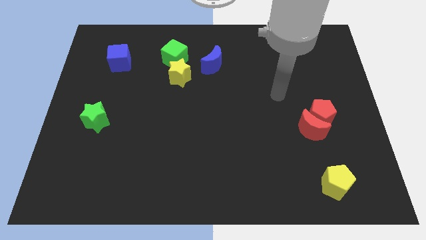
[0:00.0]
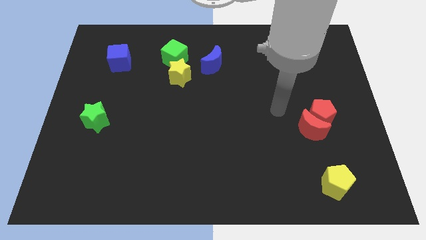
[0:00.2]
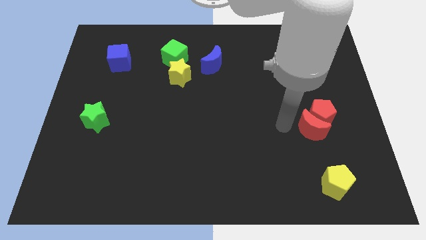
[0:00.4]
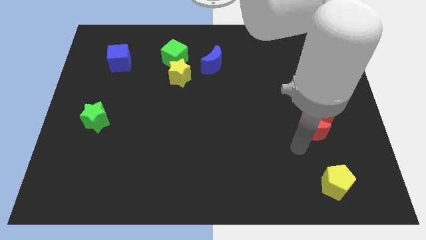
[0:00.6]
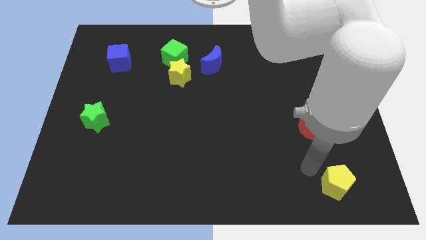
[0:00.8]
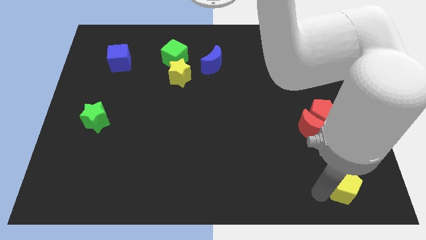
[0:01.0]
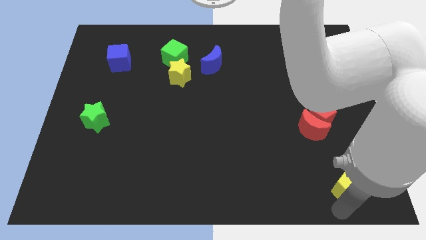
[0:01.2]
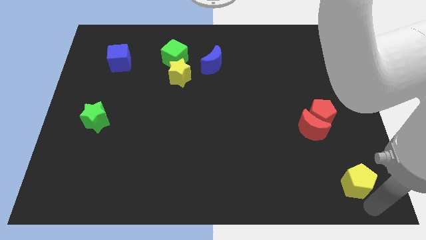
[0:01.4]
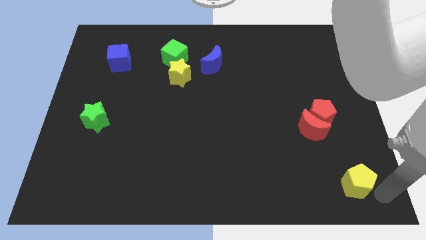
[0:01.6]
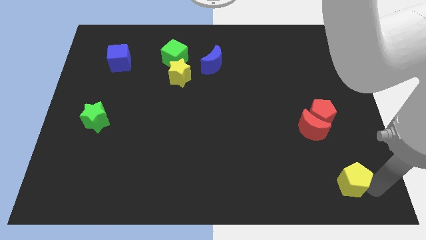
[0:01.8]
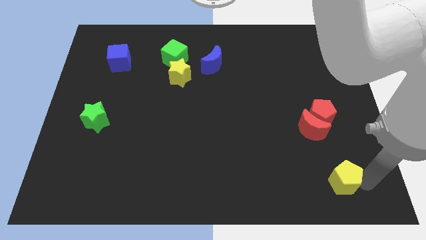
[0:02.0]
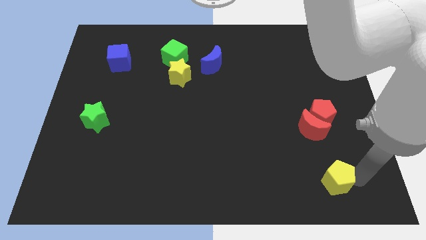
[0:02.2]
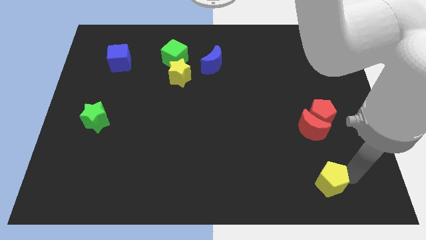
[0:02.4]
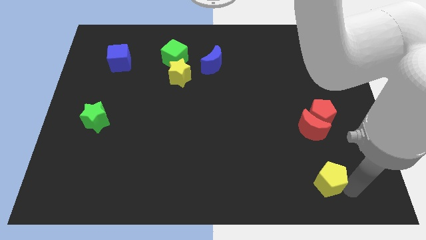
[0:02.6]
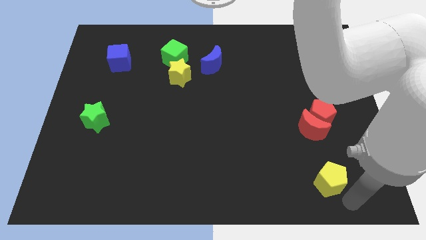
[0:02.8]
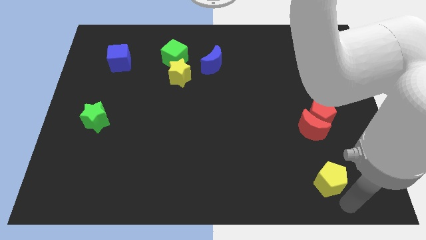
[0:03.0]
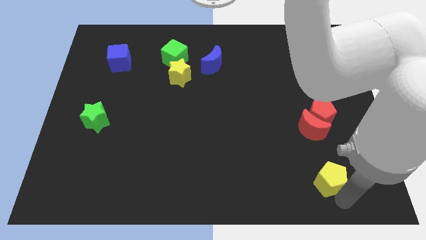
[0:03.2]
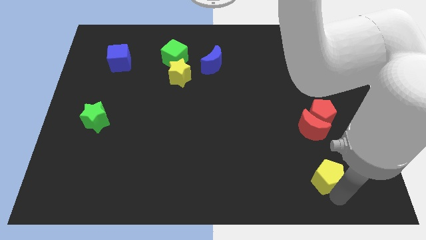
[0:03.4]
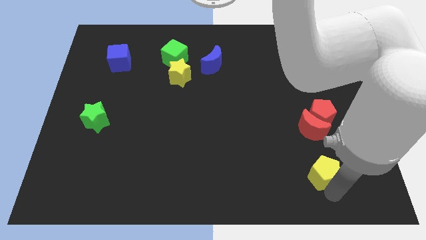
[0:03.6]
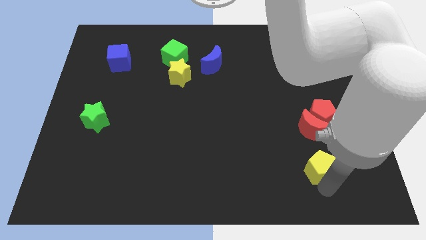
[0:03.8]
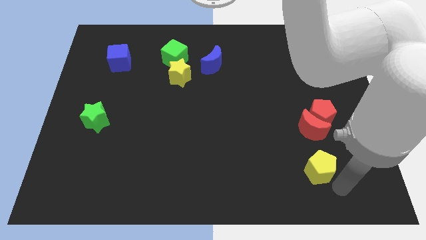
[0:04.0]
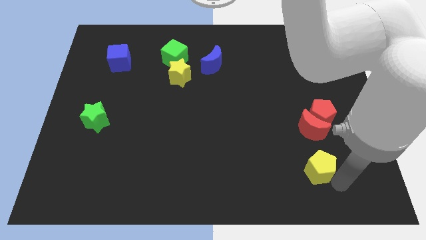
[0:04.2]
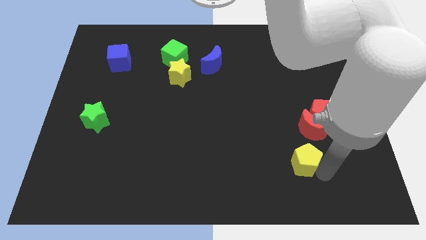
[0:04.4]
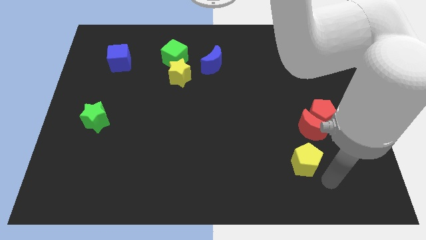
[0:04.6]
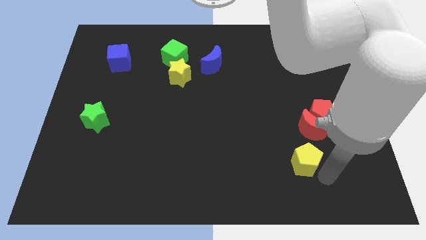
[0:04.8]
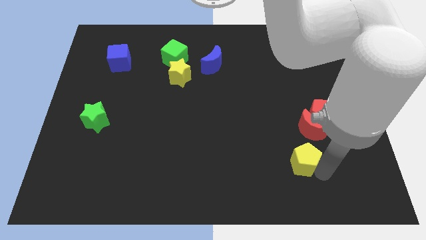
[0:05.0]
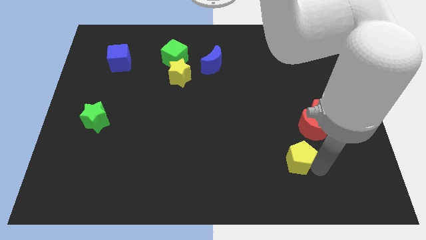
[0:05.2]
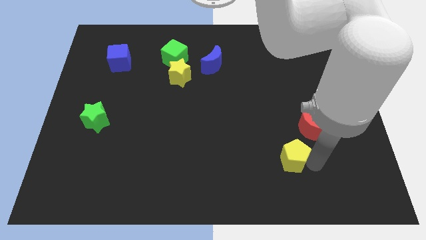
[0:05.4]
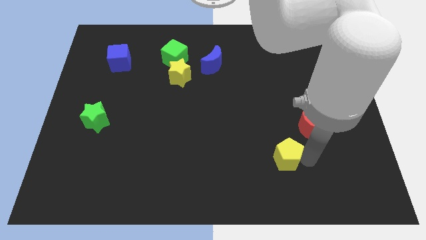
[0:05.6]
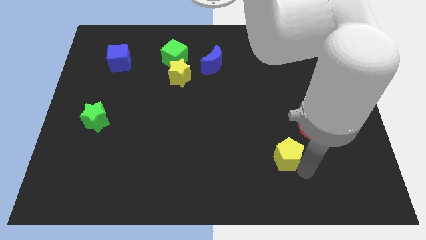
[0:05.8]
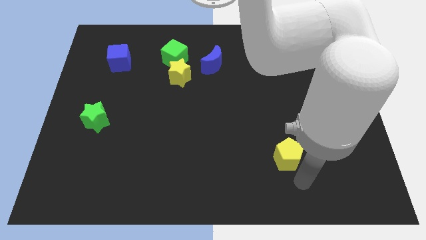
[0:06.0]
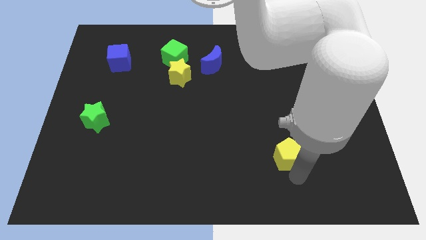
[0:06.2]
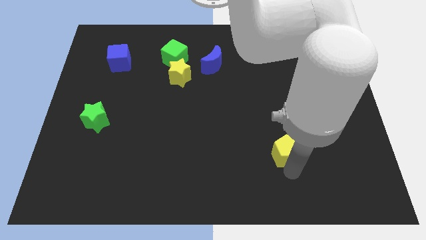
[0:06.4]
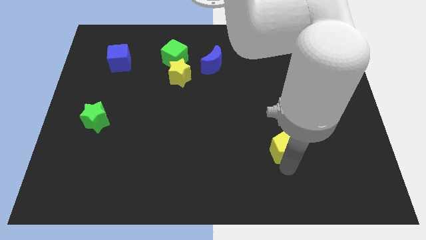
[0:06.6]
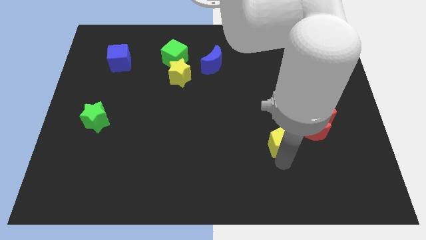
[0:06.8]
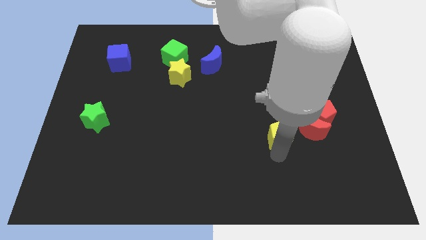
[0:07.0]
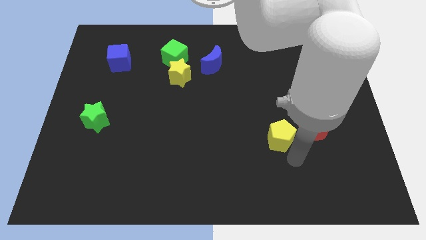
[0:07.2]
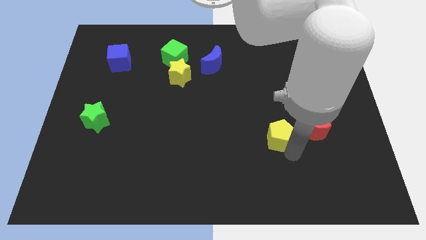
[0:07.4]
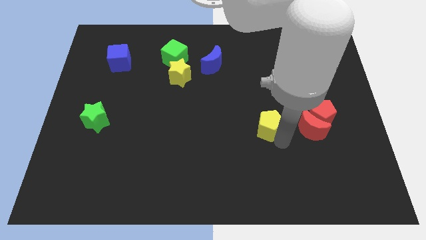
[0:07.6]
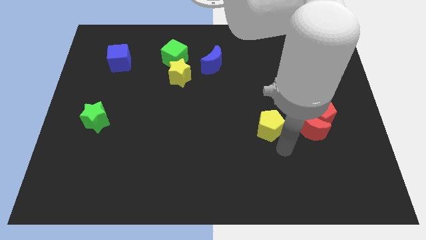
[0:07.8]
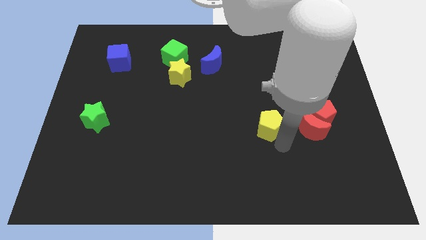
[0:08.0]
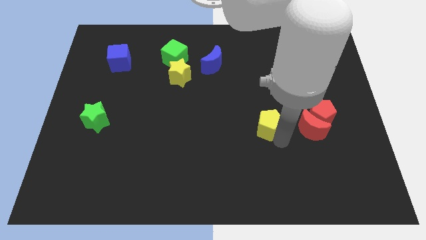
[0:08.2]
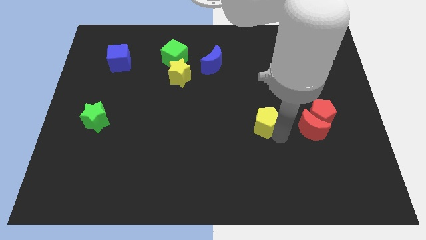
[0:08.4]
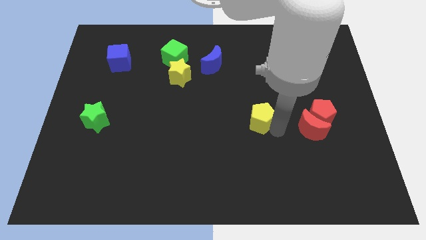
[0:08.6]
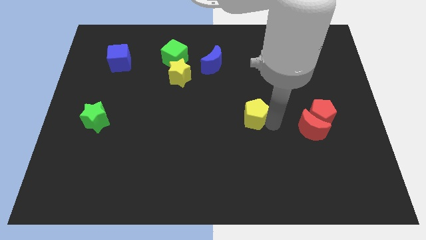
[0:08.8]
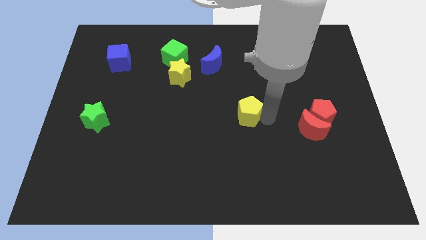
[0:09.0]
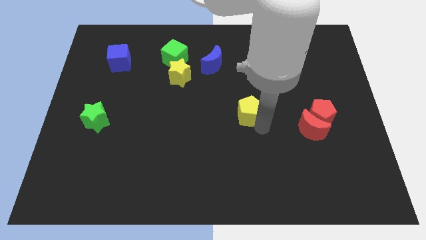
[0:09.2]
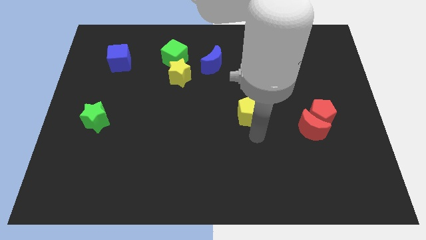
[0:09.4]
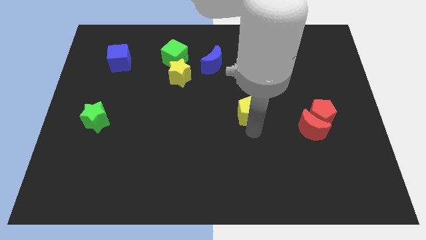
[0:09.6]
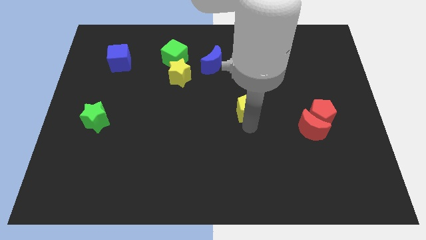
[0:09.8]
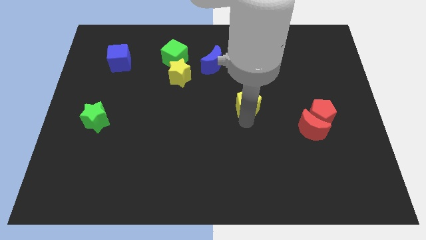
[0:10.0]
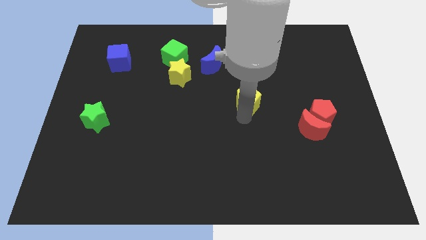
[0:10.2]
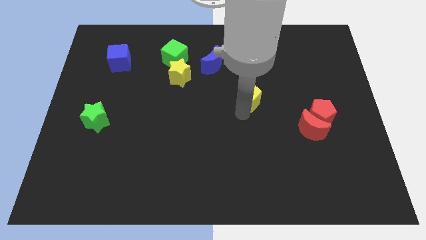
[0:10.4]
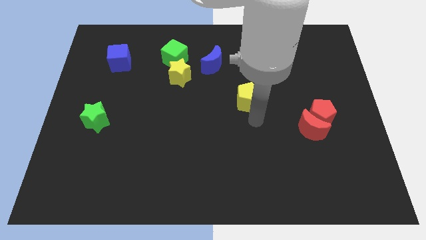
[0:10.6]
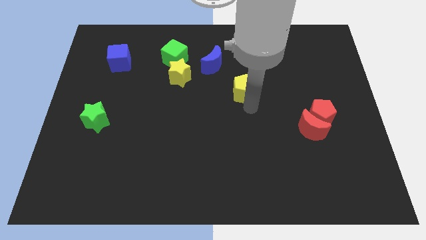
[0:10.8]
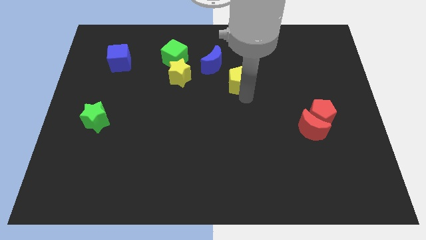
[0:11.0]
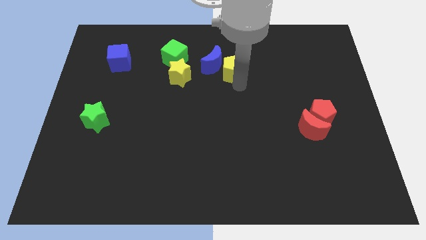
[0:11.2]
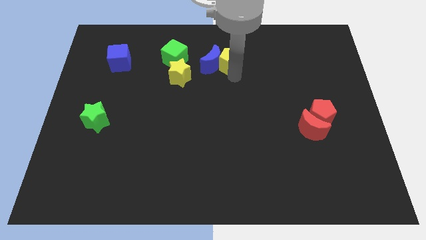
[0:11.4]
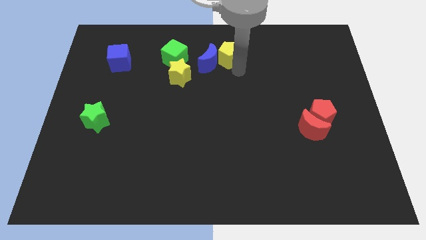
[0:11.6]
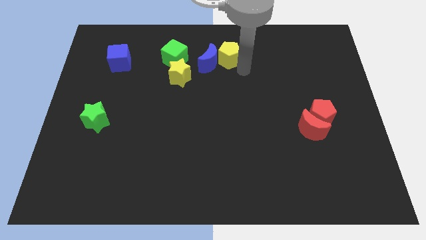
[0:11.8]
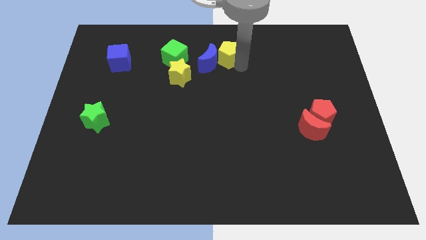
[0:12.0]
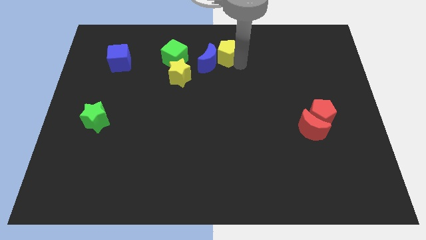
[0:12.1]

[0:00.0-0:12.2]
move the yellow pentagon to the top
